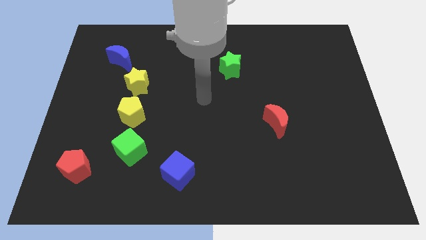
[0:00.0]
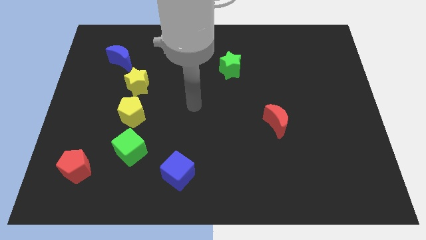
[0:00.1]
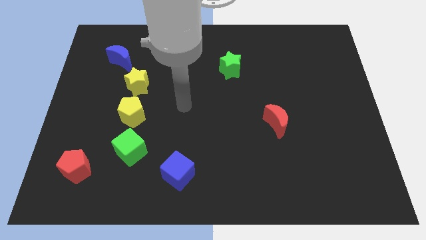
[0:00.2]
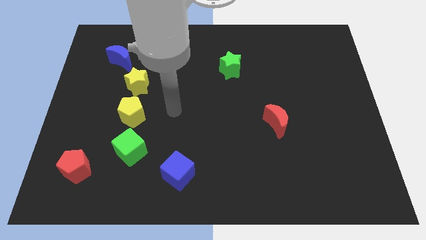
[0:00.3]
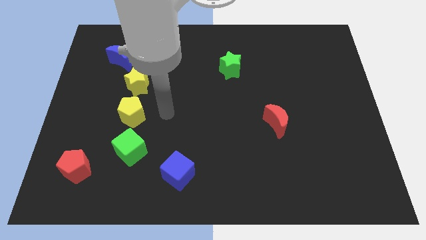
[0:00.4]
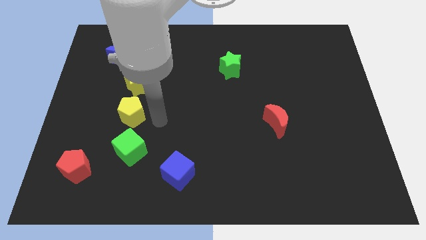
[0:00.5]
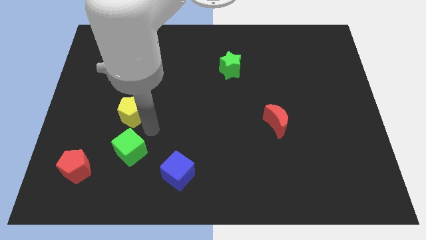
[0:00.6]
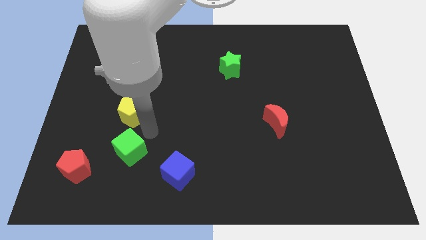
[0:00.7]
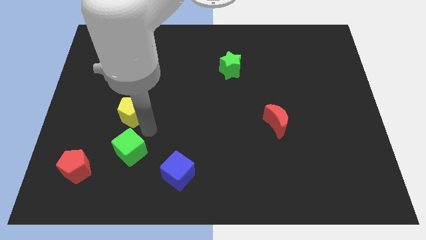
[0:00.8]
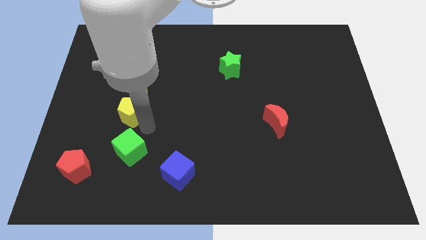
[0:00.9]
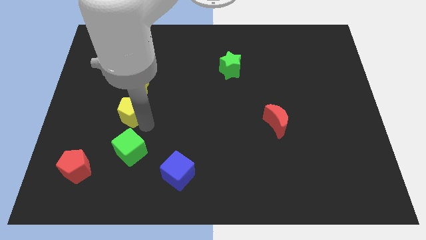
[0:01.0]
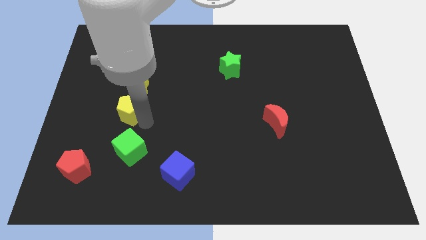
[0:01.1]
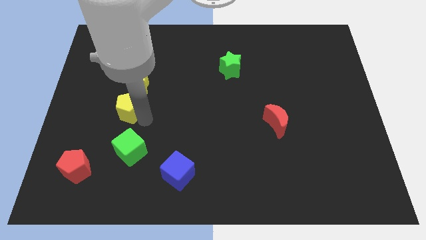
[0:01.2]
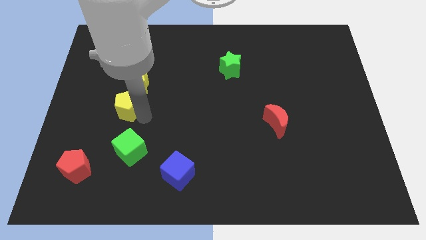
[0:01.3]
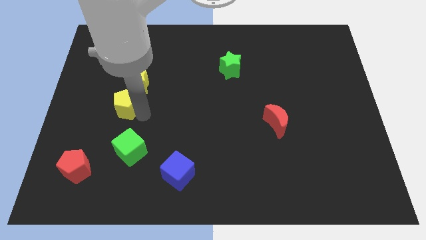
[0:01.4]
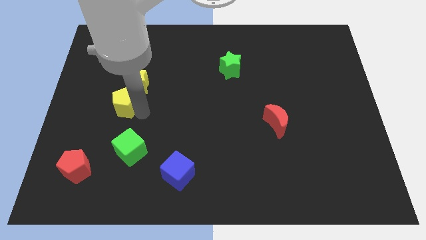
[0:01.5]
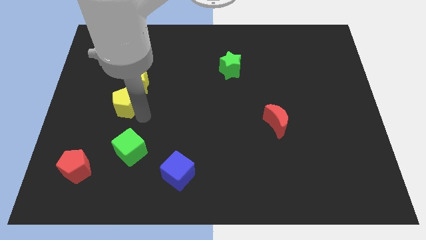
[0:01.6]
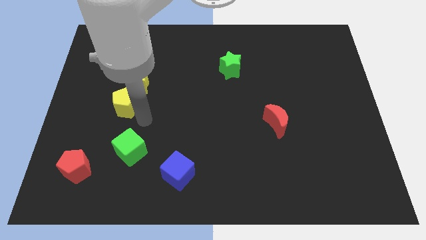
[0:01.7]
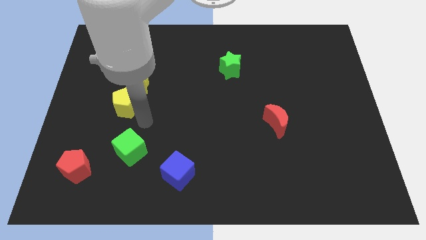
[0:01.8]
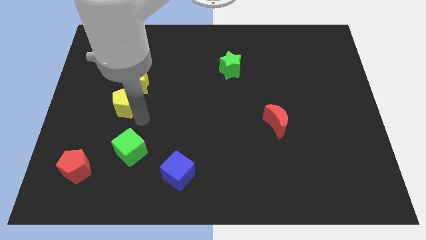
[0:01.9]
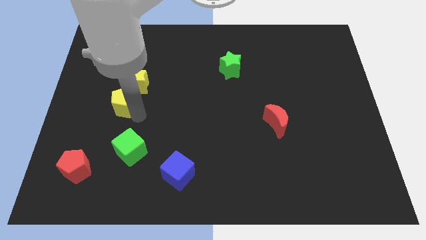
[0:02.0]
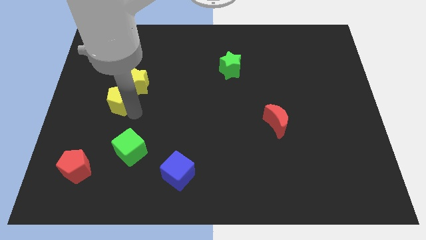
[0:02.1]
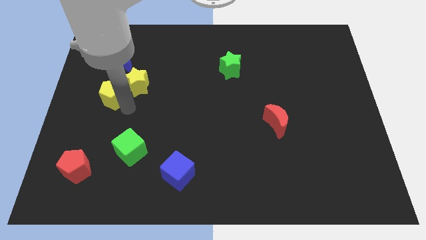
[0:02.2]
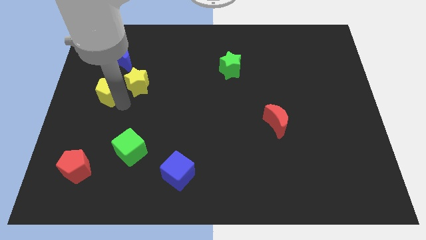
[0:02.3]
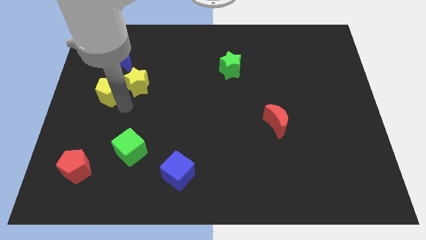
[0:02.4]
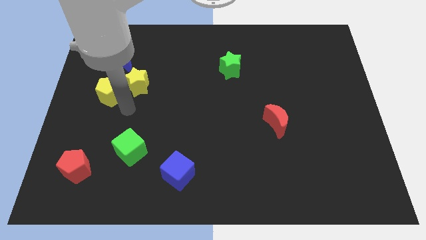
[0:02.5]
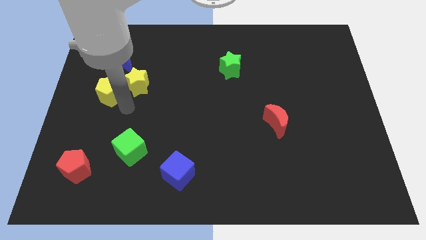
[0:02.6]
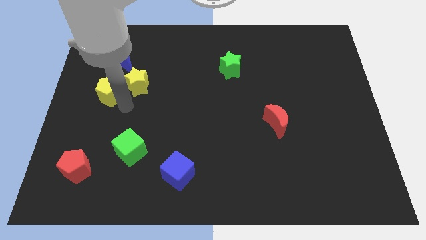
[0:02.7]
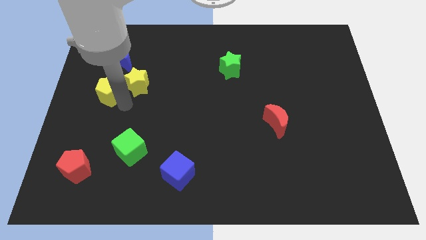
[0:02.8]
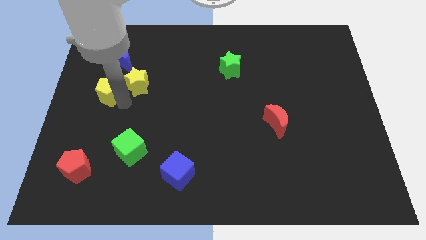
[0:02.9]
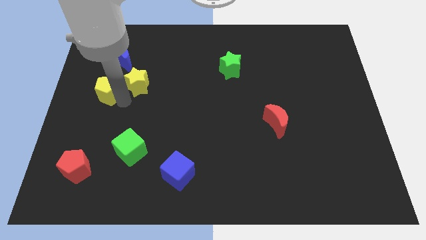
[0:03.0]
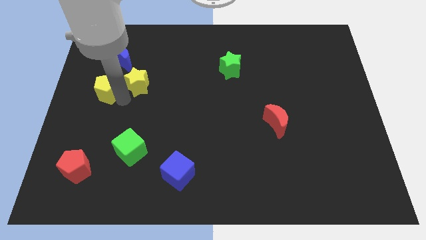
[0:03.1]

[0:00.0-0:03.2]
move the yellow pentagon away from the yellow star and green cube

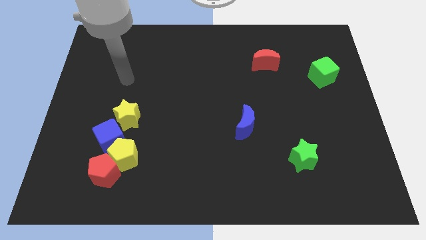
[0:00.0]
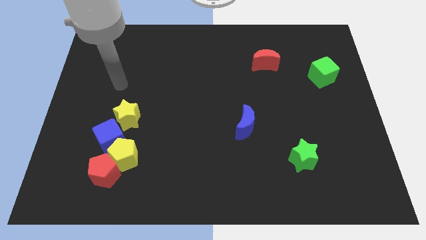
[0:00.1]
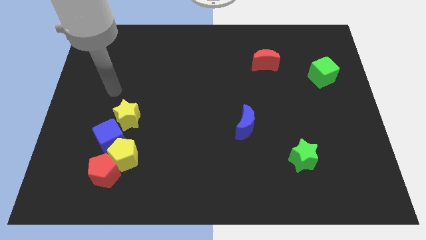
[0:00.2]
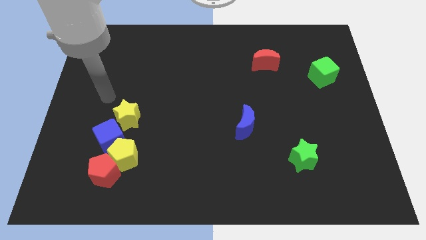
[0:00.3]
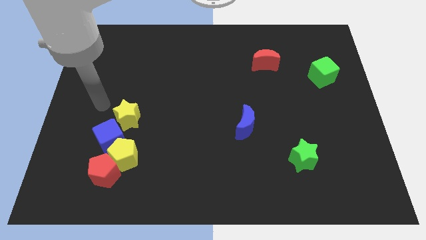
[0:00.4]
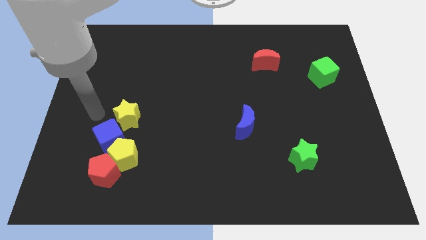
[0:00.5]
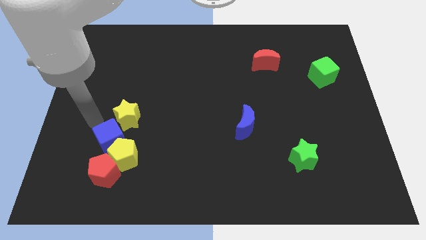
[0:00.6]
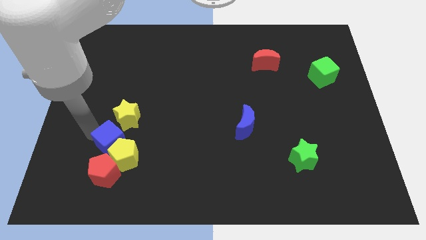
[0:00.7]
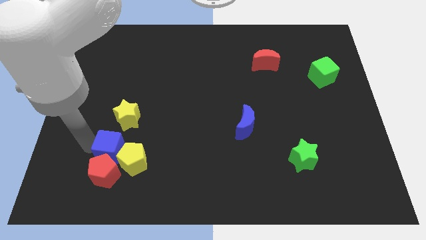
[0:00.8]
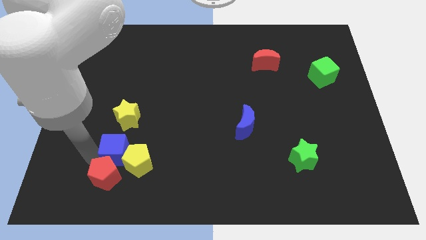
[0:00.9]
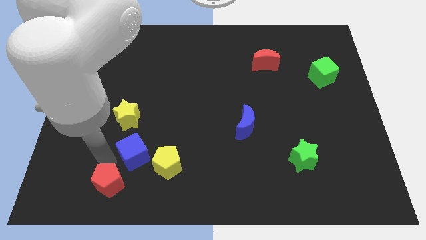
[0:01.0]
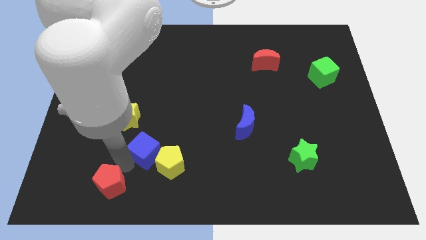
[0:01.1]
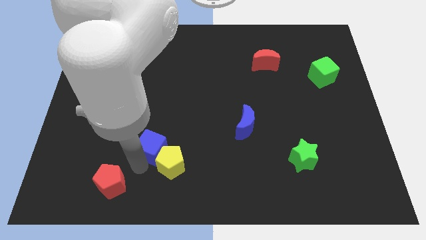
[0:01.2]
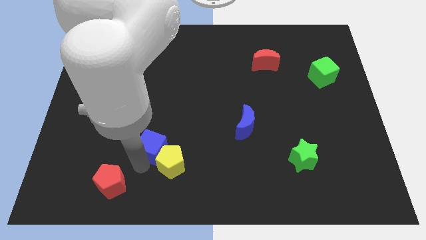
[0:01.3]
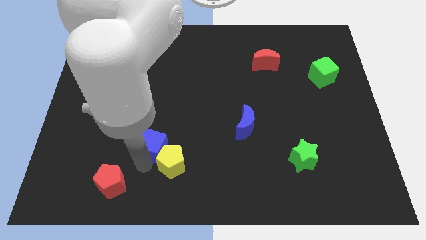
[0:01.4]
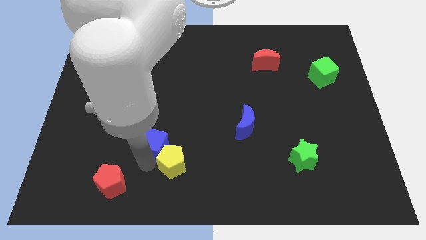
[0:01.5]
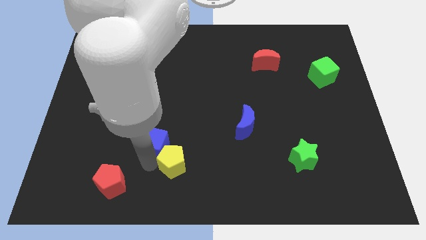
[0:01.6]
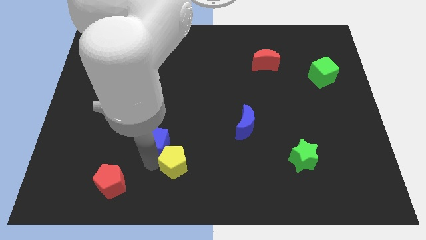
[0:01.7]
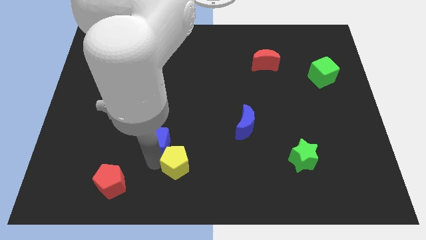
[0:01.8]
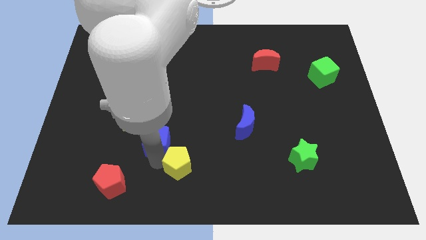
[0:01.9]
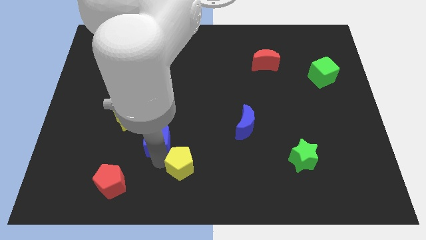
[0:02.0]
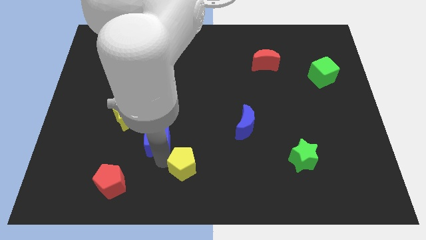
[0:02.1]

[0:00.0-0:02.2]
move the yellow pentagon away from the red pentagon and blue cube

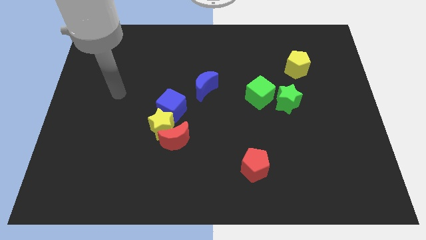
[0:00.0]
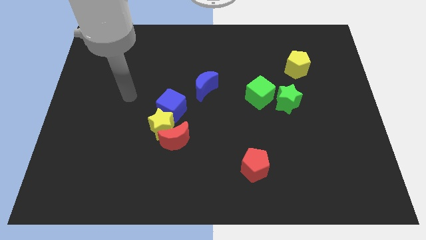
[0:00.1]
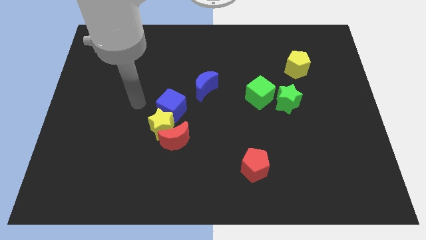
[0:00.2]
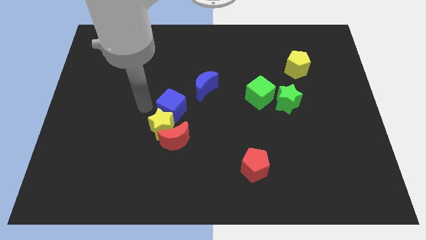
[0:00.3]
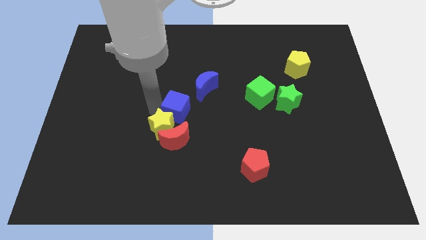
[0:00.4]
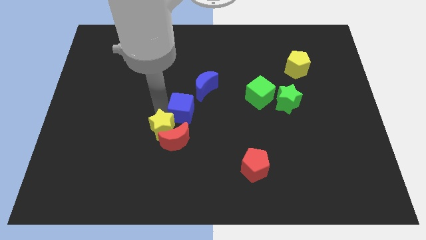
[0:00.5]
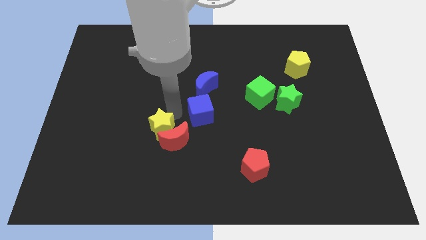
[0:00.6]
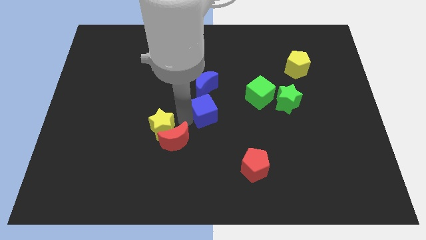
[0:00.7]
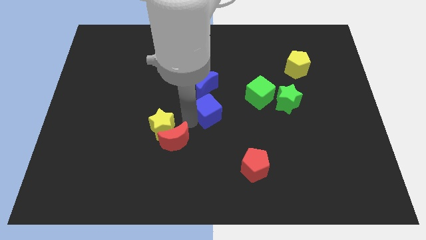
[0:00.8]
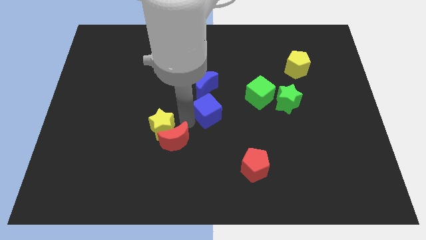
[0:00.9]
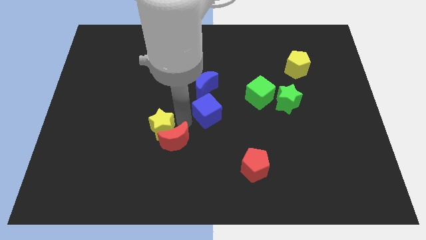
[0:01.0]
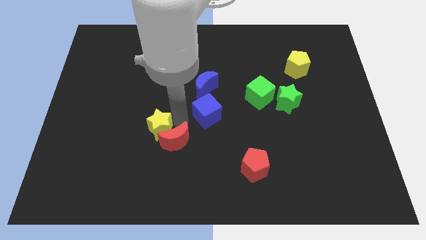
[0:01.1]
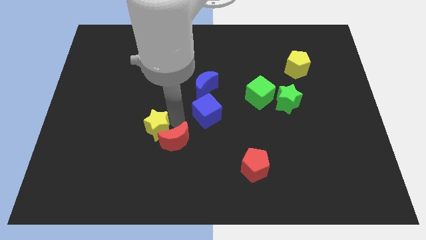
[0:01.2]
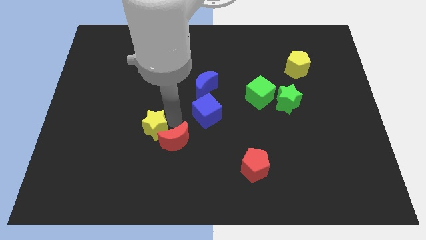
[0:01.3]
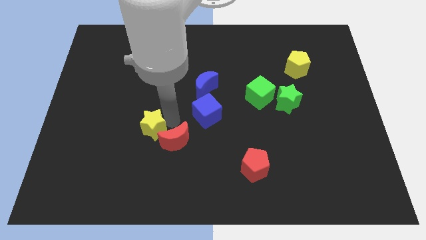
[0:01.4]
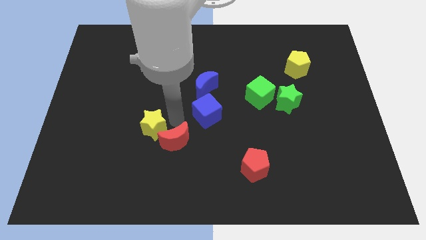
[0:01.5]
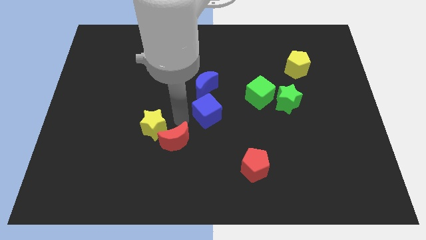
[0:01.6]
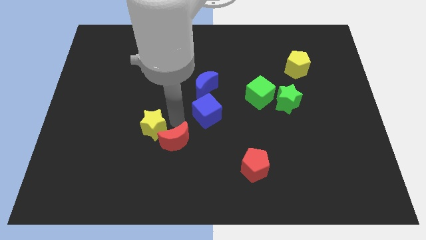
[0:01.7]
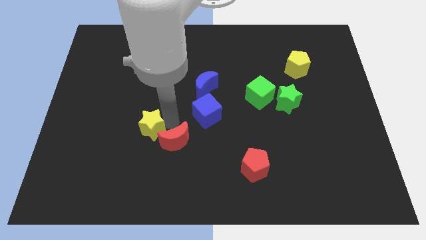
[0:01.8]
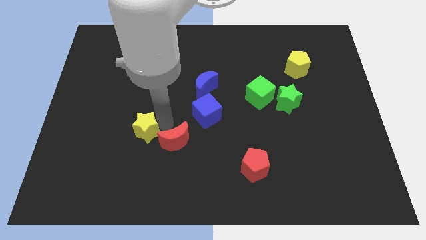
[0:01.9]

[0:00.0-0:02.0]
pull the yellow star apart from the red moon and blue cube

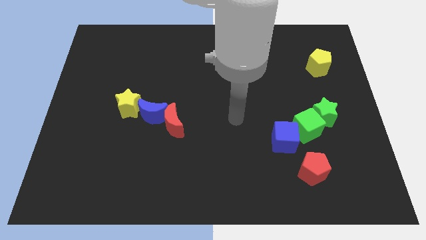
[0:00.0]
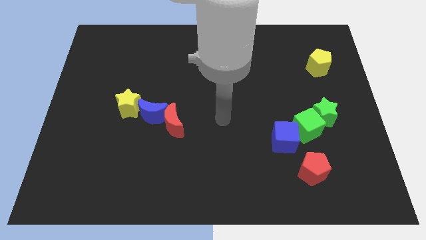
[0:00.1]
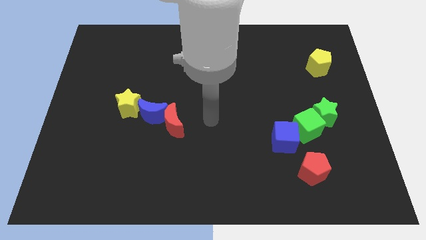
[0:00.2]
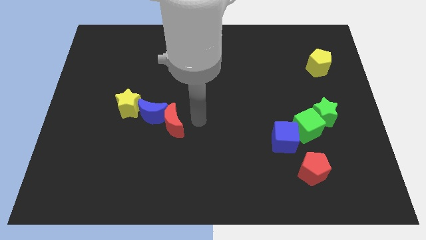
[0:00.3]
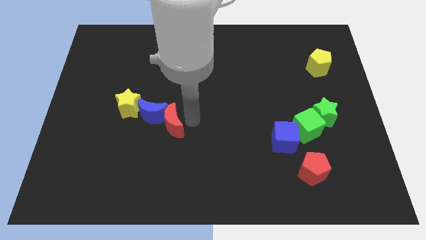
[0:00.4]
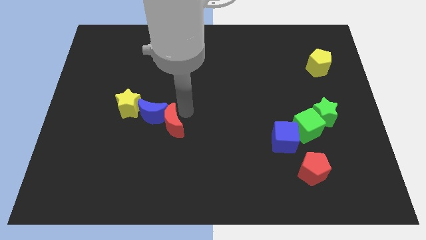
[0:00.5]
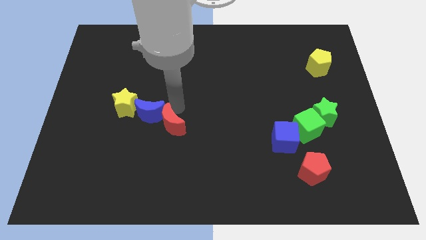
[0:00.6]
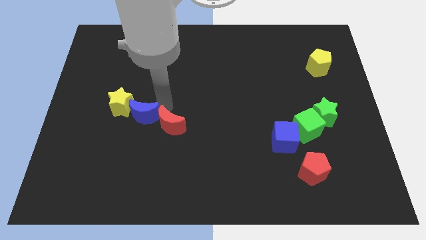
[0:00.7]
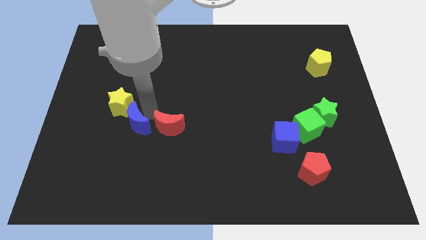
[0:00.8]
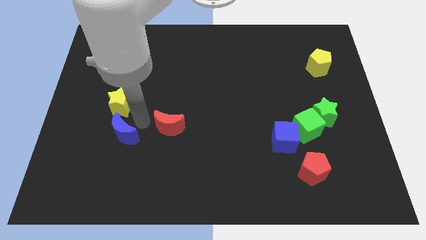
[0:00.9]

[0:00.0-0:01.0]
move the red moon away from the blue moon

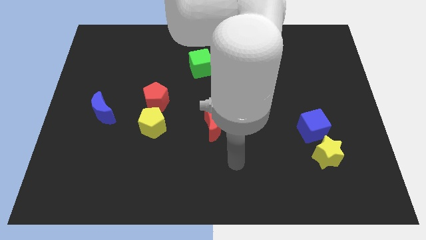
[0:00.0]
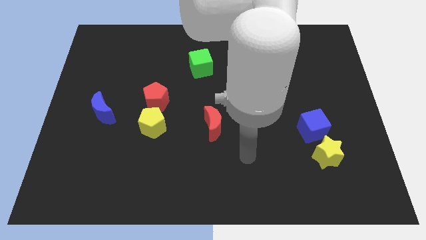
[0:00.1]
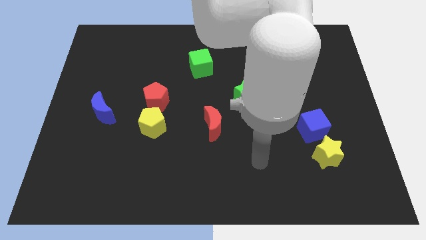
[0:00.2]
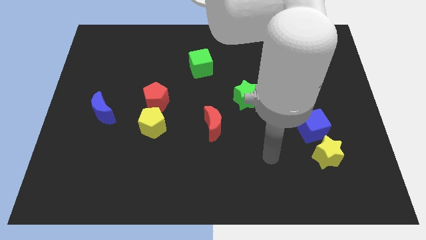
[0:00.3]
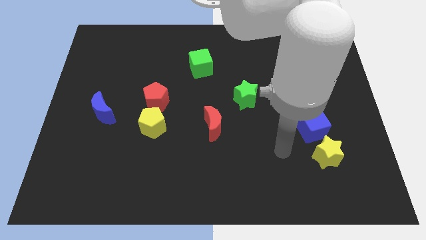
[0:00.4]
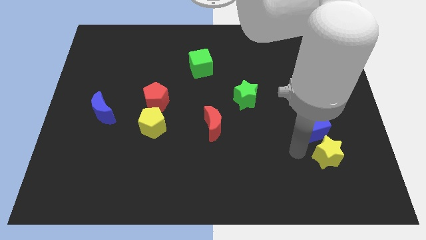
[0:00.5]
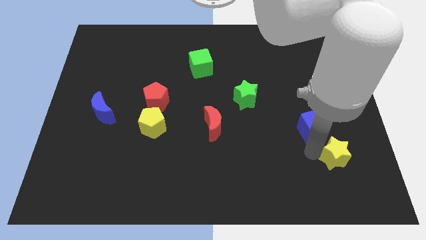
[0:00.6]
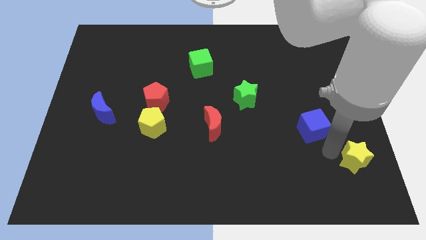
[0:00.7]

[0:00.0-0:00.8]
move the blue cube away from the yellow star

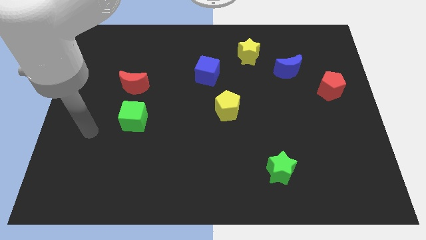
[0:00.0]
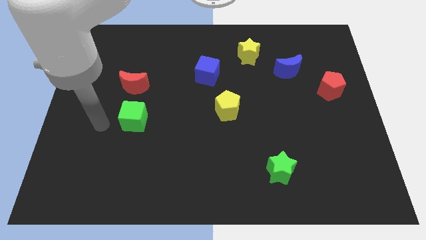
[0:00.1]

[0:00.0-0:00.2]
move the red moon away from the green cube
